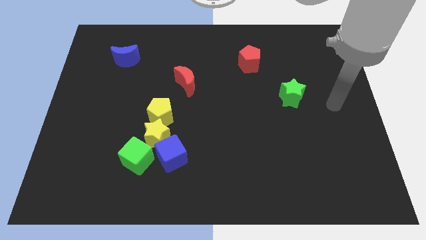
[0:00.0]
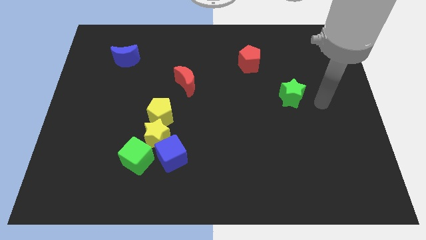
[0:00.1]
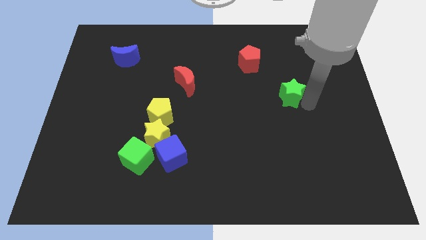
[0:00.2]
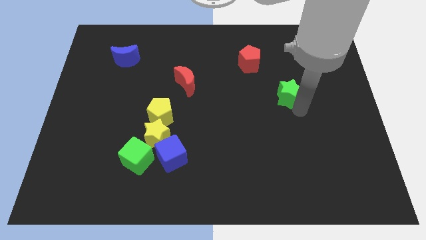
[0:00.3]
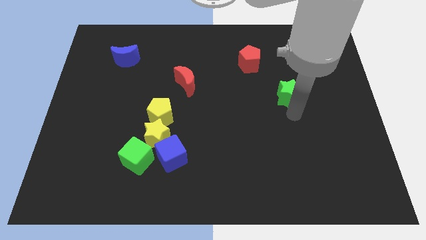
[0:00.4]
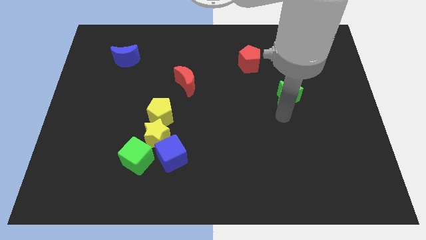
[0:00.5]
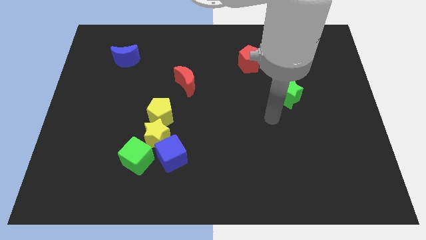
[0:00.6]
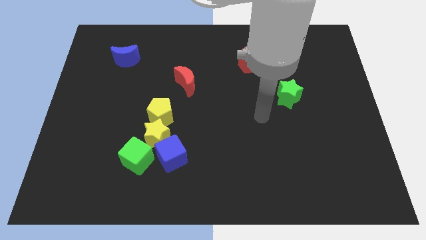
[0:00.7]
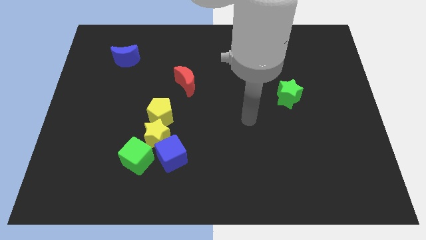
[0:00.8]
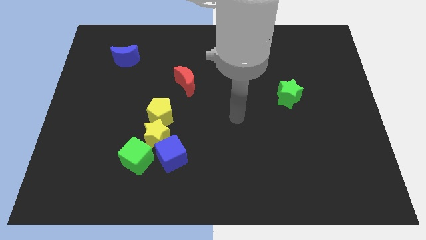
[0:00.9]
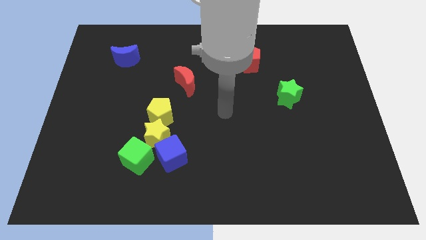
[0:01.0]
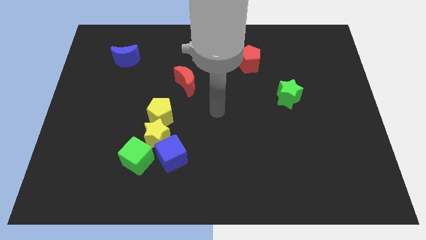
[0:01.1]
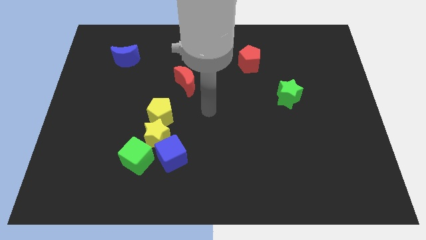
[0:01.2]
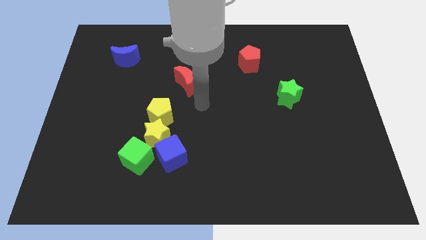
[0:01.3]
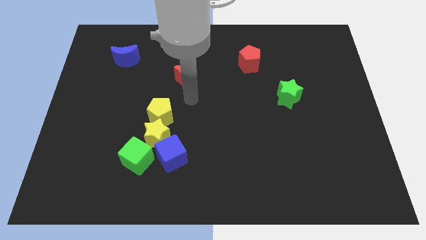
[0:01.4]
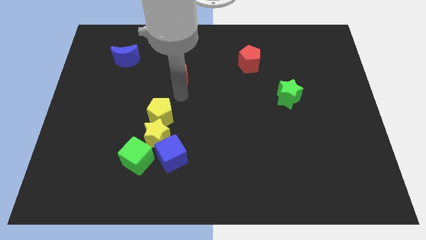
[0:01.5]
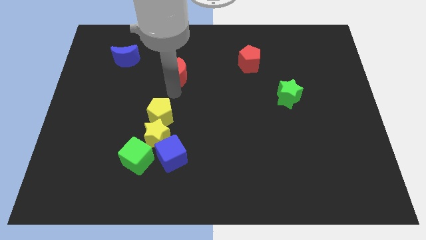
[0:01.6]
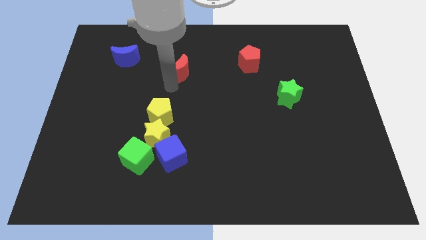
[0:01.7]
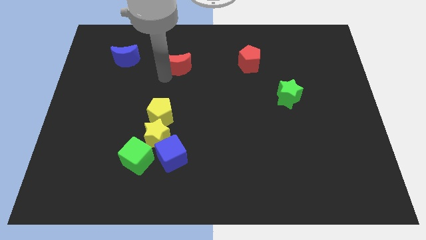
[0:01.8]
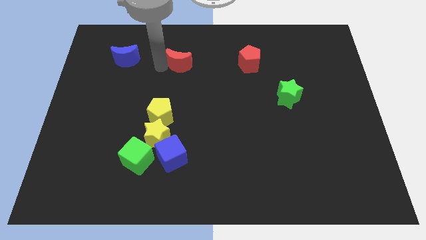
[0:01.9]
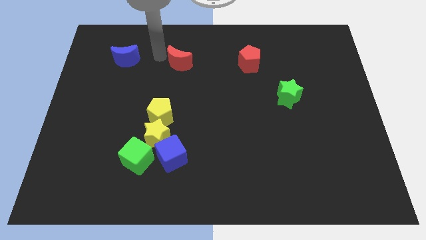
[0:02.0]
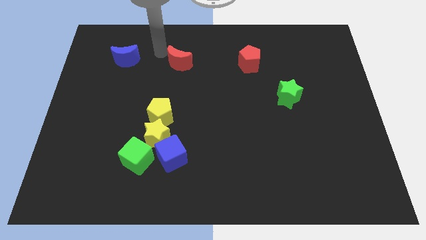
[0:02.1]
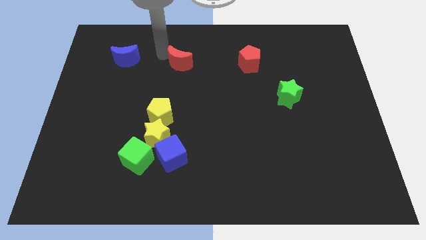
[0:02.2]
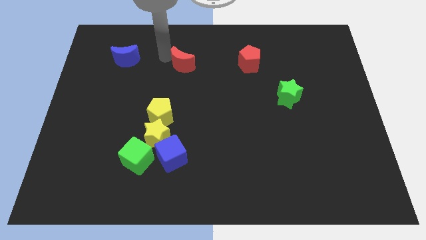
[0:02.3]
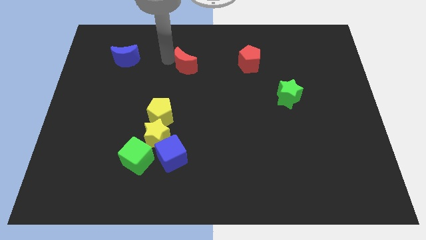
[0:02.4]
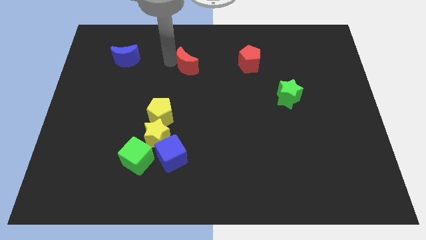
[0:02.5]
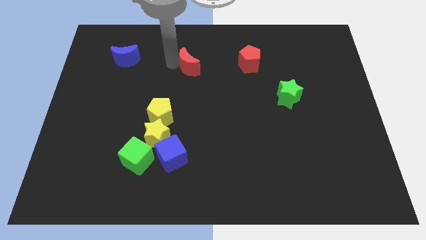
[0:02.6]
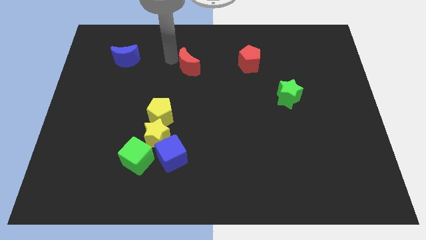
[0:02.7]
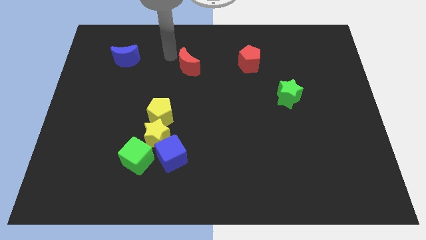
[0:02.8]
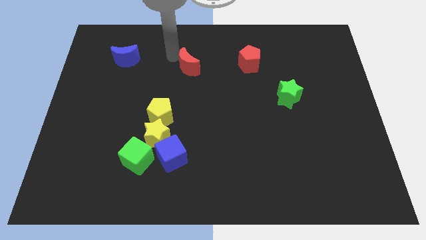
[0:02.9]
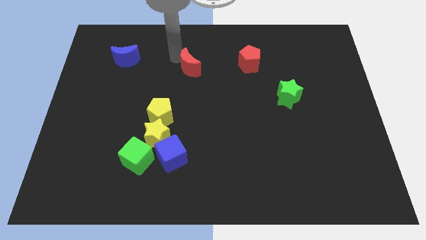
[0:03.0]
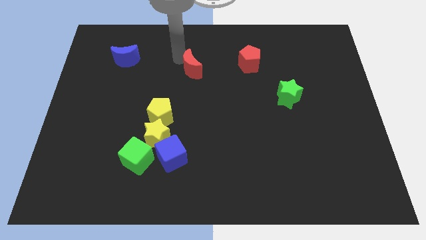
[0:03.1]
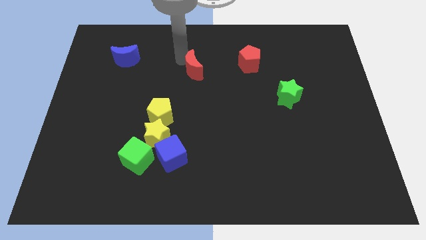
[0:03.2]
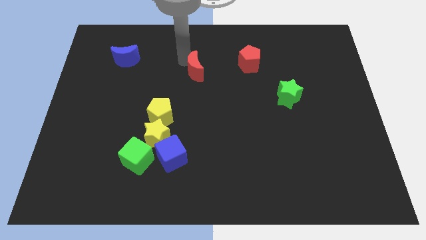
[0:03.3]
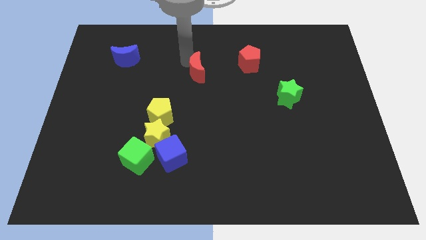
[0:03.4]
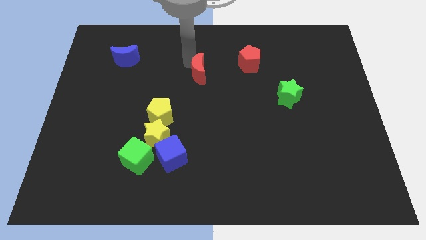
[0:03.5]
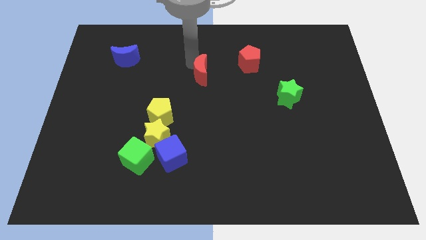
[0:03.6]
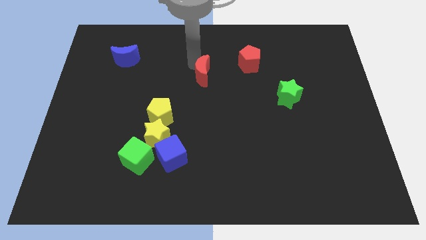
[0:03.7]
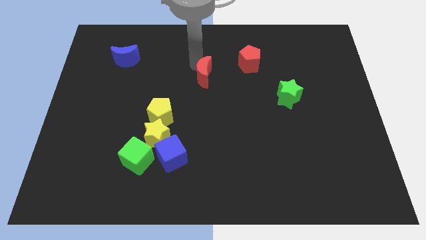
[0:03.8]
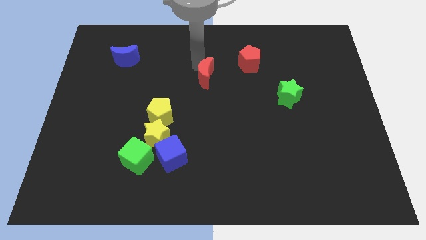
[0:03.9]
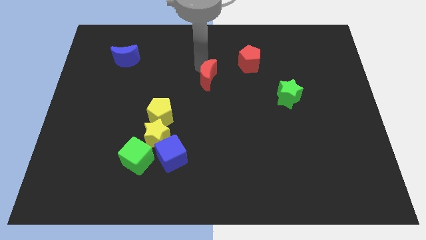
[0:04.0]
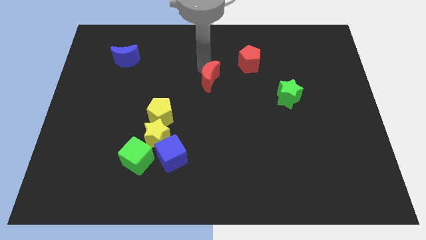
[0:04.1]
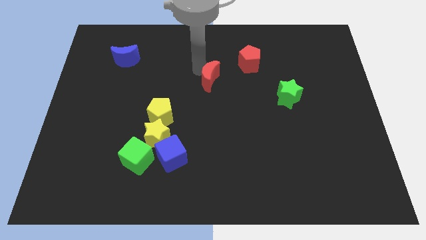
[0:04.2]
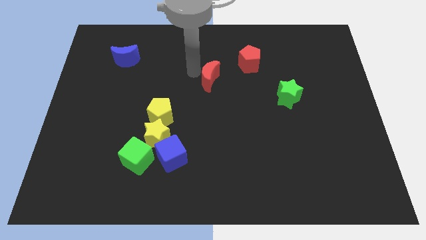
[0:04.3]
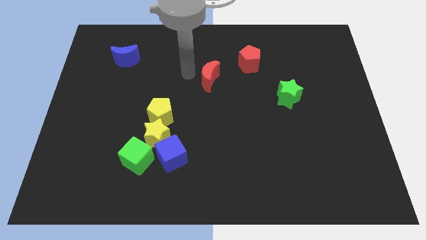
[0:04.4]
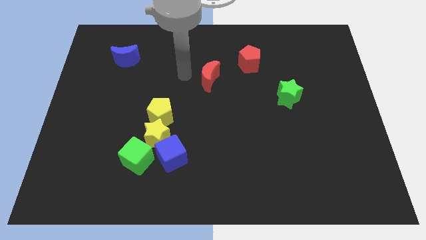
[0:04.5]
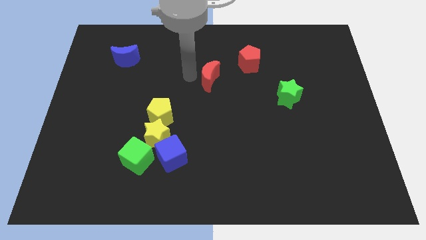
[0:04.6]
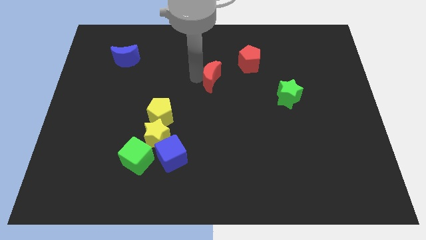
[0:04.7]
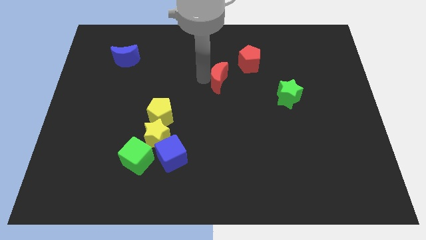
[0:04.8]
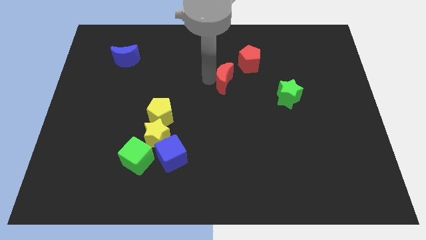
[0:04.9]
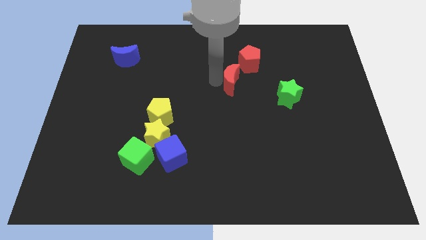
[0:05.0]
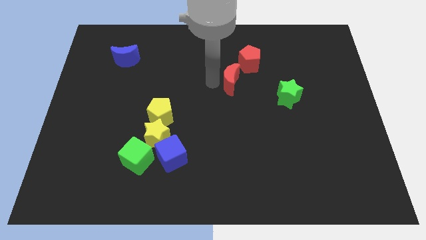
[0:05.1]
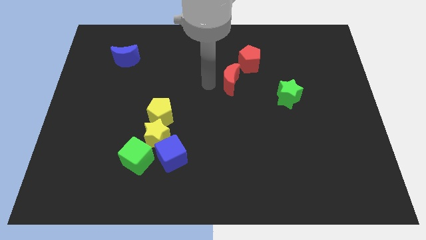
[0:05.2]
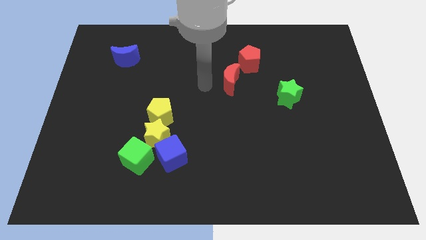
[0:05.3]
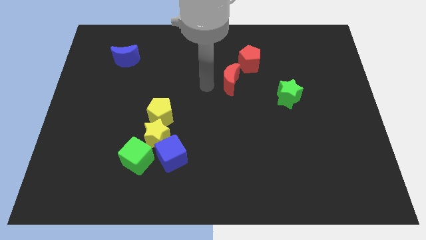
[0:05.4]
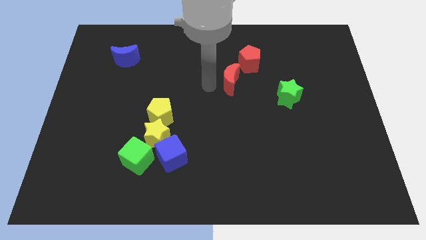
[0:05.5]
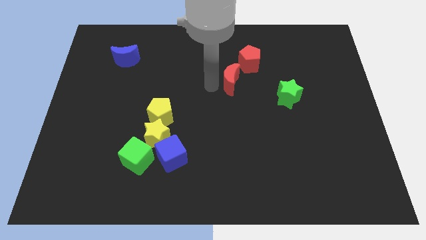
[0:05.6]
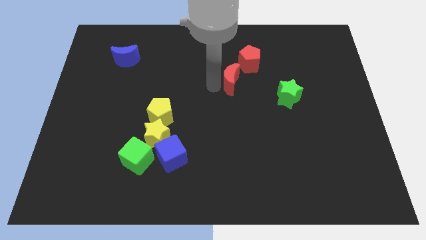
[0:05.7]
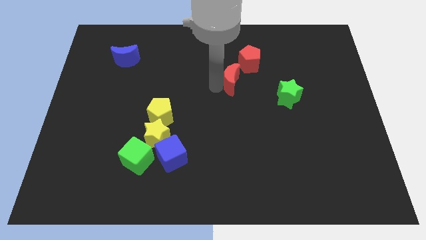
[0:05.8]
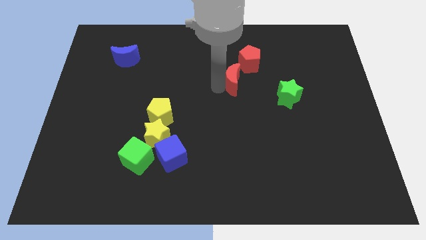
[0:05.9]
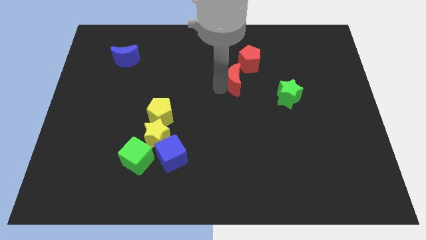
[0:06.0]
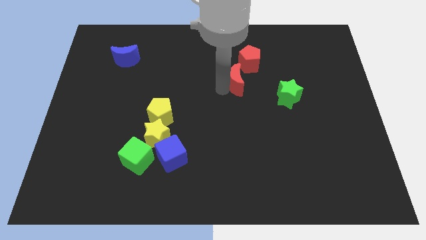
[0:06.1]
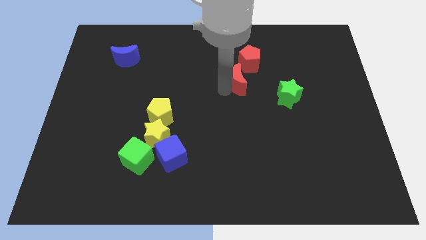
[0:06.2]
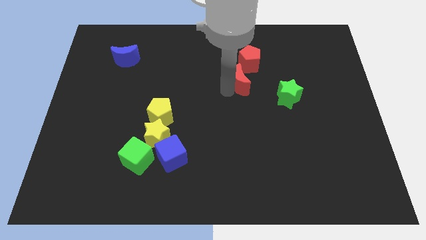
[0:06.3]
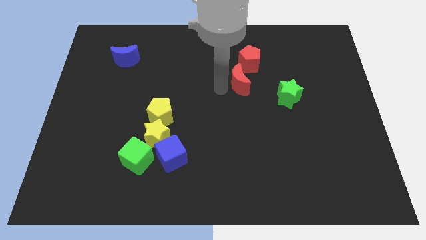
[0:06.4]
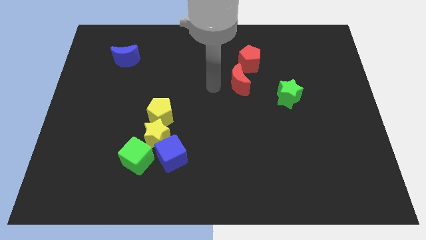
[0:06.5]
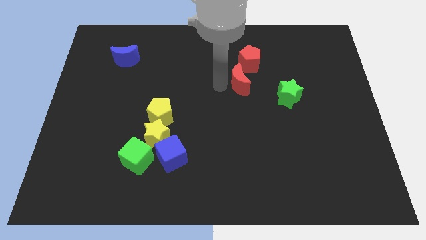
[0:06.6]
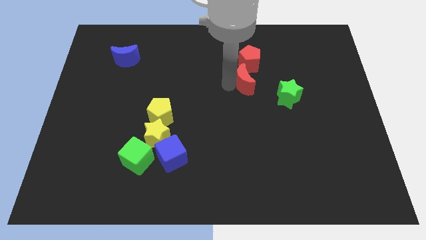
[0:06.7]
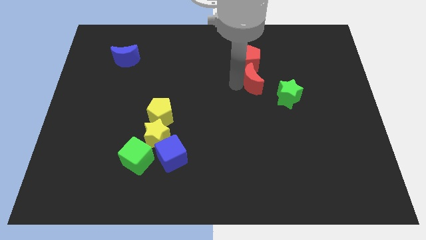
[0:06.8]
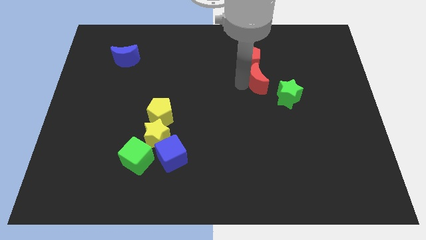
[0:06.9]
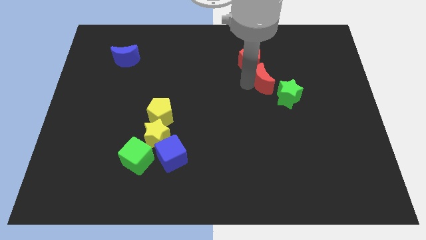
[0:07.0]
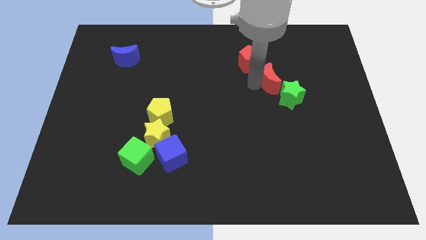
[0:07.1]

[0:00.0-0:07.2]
slide the red moon to the right

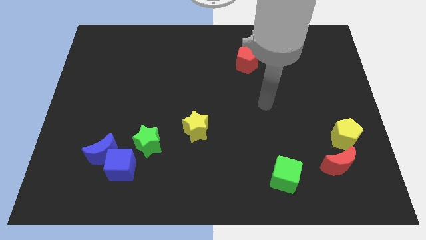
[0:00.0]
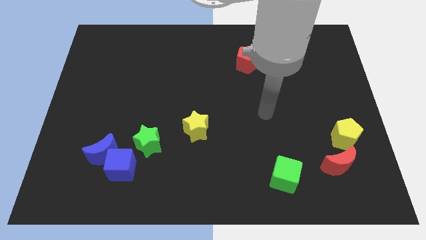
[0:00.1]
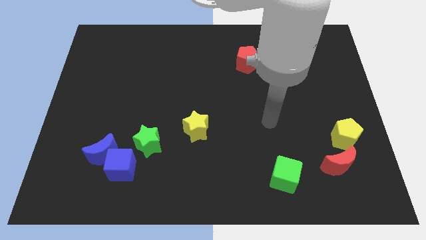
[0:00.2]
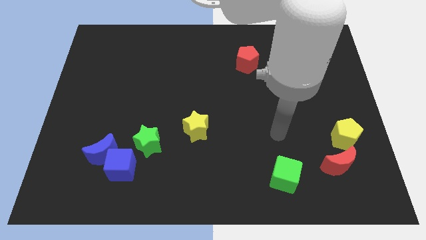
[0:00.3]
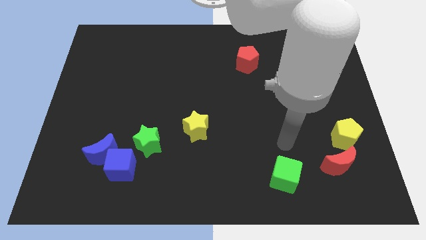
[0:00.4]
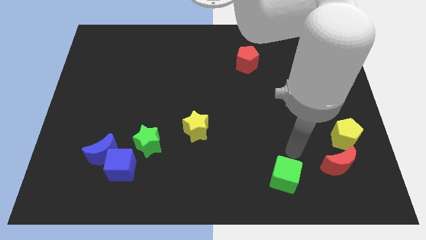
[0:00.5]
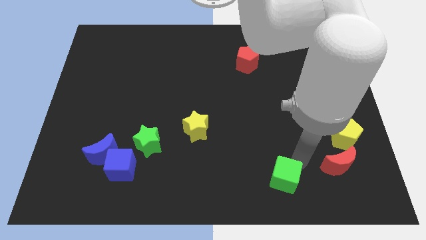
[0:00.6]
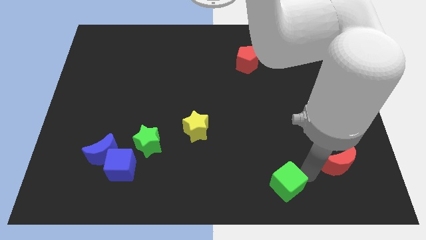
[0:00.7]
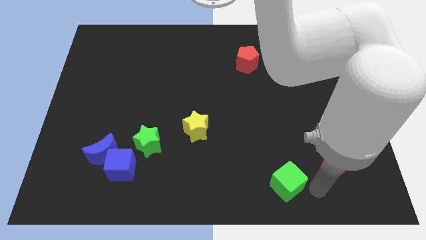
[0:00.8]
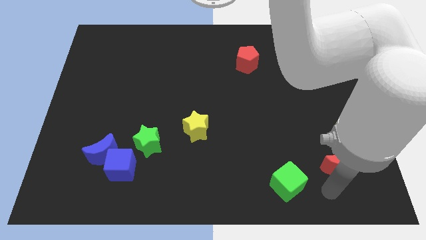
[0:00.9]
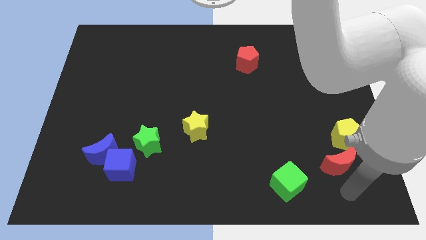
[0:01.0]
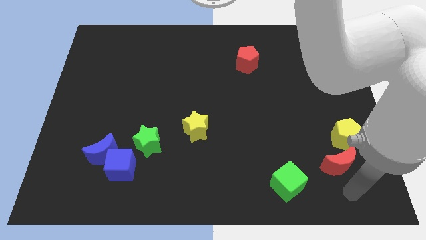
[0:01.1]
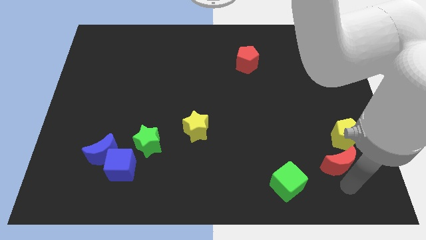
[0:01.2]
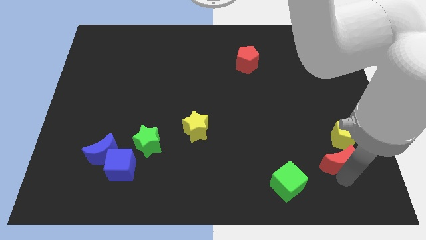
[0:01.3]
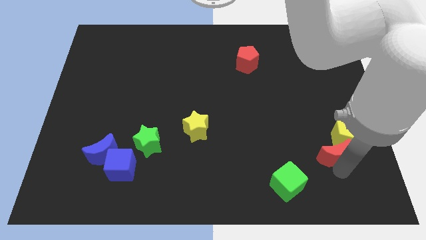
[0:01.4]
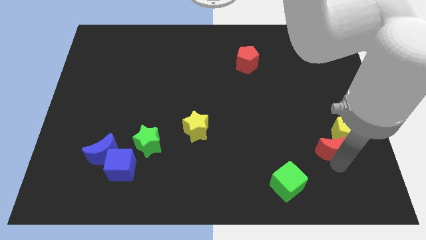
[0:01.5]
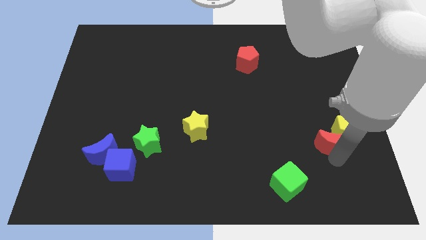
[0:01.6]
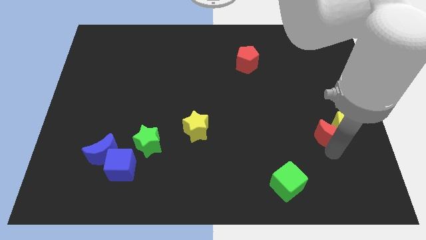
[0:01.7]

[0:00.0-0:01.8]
move the red moon somewhat upwards
